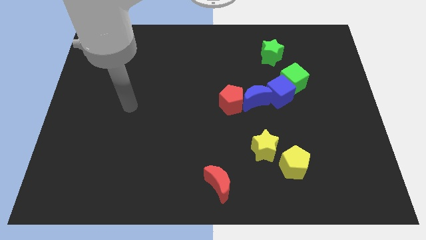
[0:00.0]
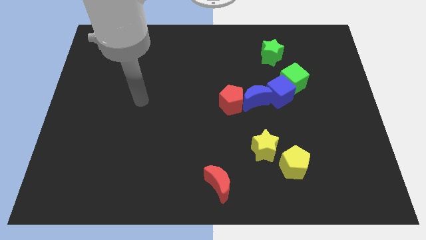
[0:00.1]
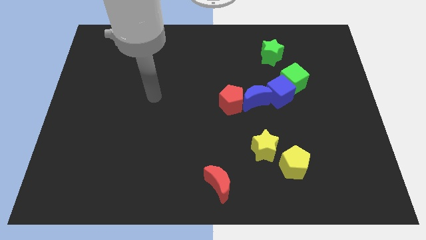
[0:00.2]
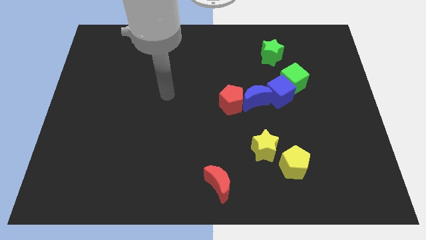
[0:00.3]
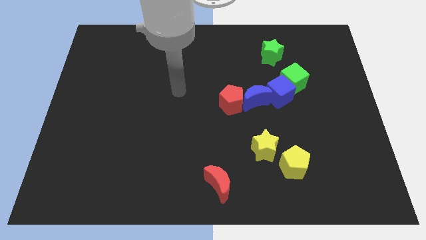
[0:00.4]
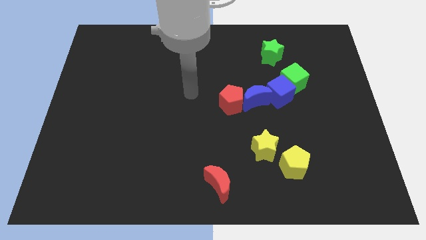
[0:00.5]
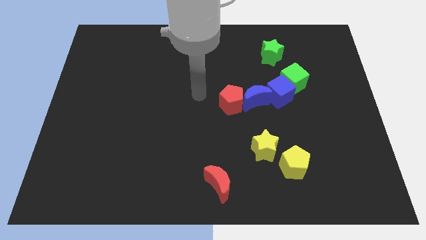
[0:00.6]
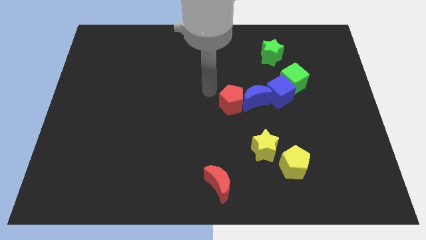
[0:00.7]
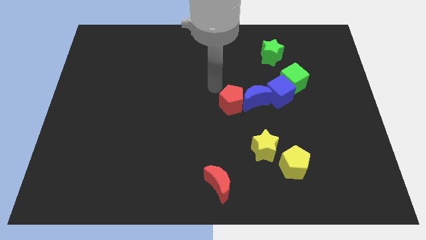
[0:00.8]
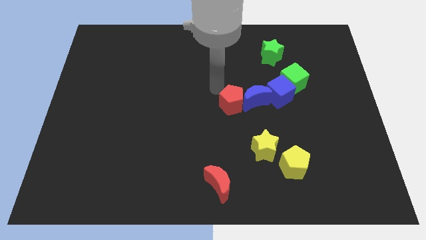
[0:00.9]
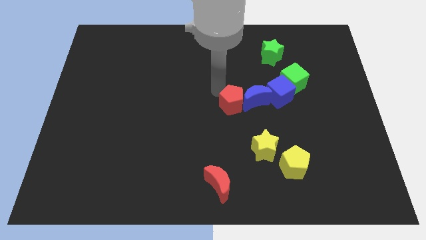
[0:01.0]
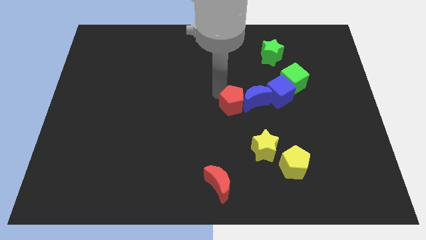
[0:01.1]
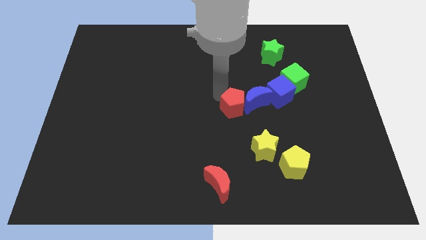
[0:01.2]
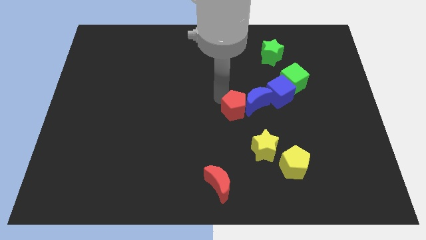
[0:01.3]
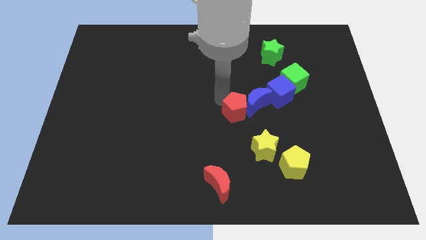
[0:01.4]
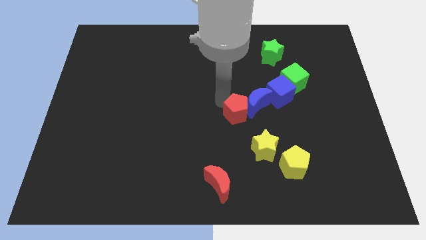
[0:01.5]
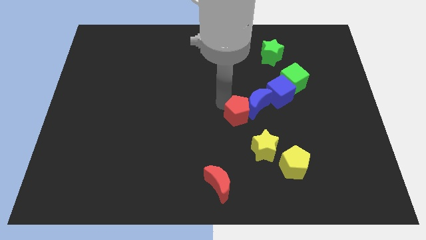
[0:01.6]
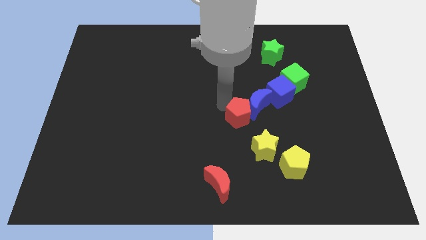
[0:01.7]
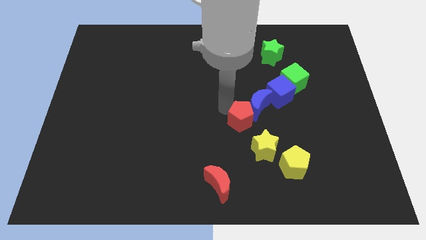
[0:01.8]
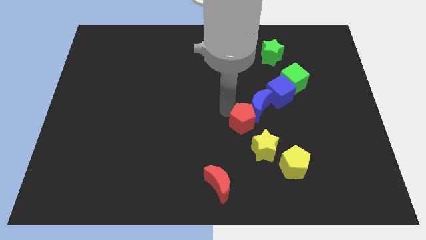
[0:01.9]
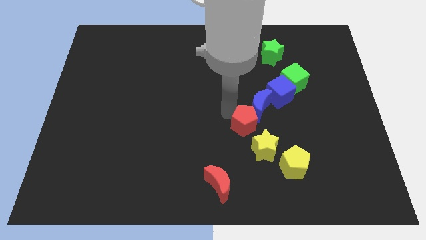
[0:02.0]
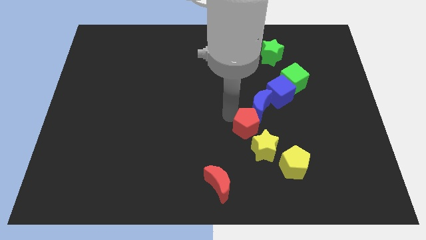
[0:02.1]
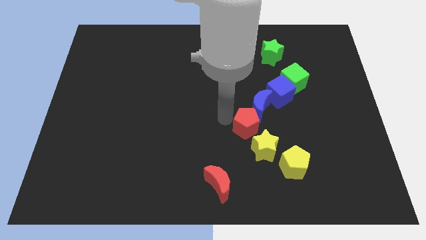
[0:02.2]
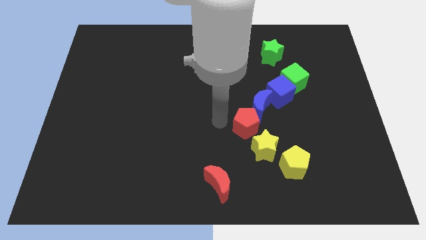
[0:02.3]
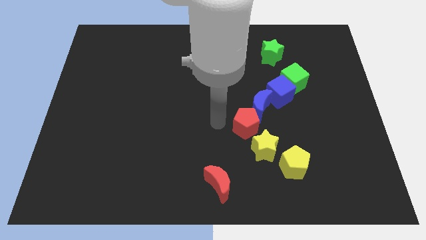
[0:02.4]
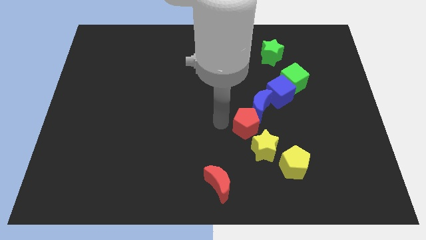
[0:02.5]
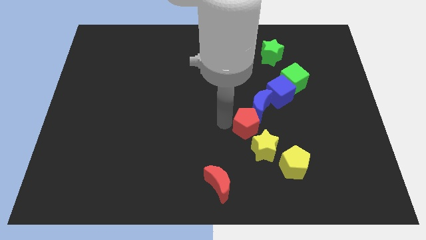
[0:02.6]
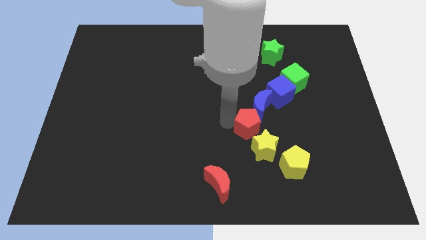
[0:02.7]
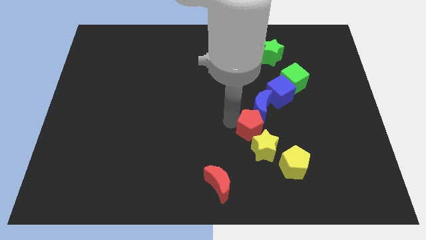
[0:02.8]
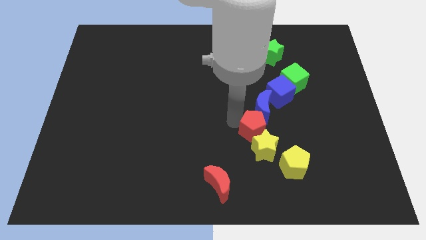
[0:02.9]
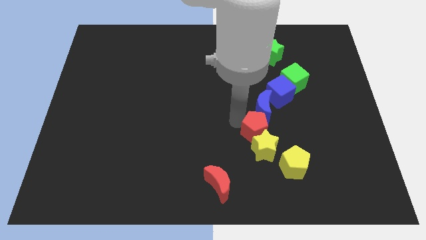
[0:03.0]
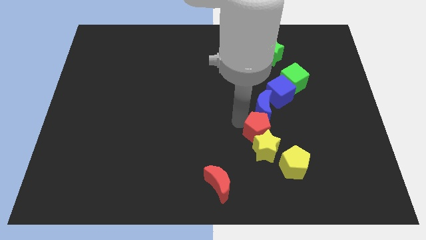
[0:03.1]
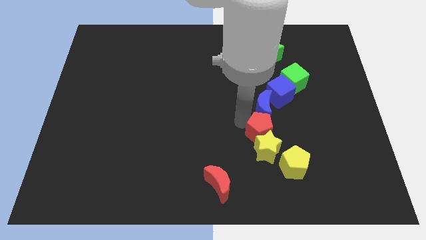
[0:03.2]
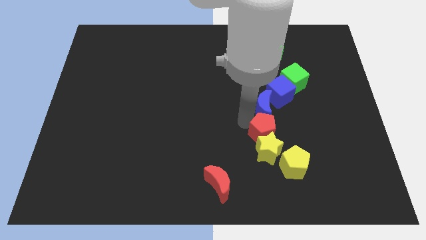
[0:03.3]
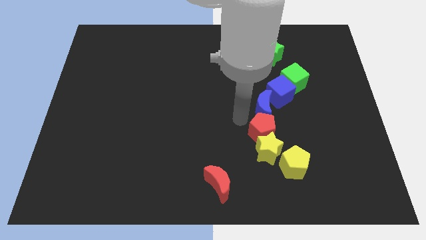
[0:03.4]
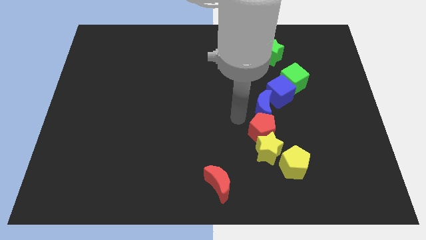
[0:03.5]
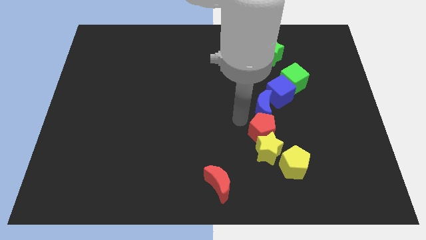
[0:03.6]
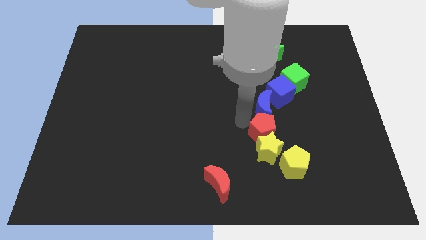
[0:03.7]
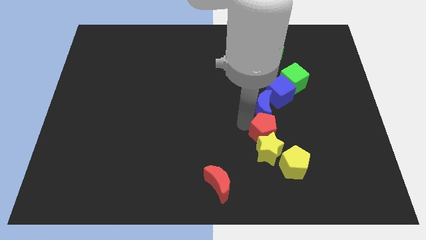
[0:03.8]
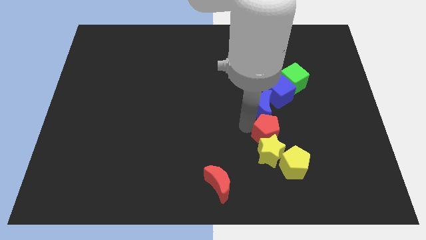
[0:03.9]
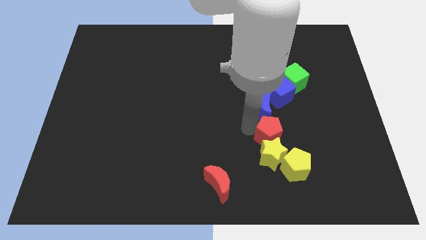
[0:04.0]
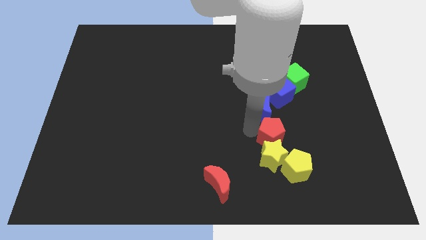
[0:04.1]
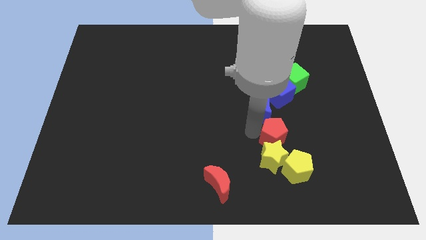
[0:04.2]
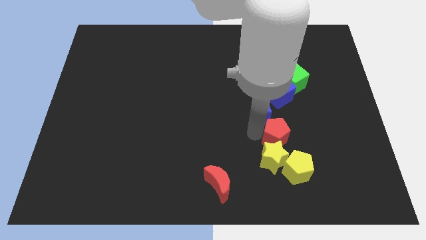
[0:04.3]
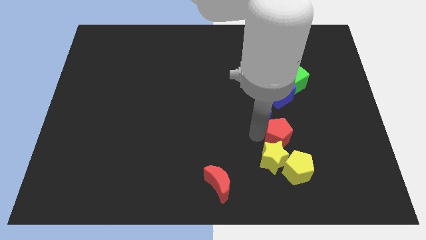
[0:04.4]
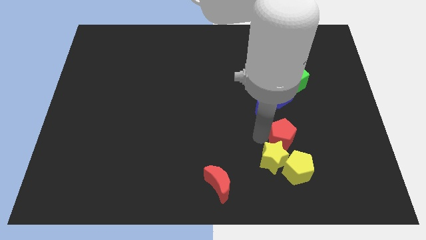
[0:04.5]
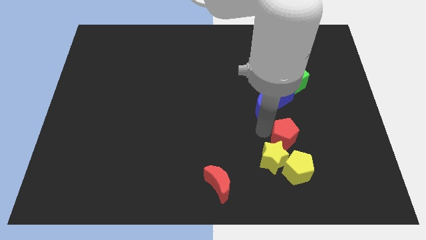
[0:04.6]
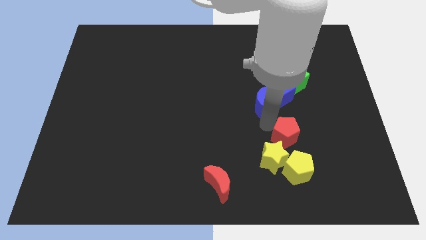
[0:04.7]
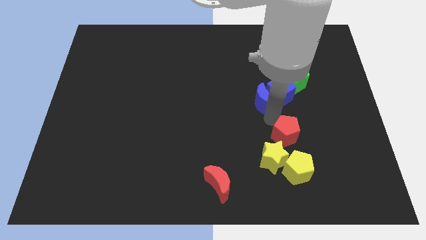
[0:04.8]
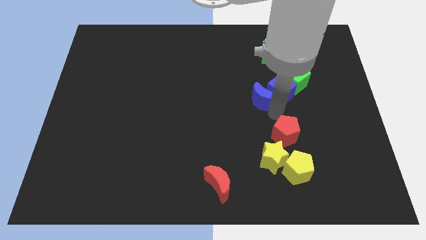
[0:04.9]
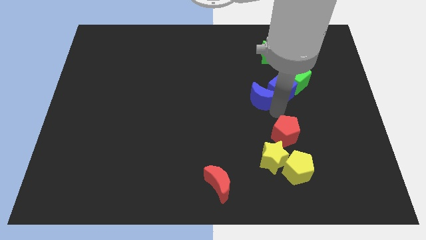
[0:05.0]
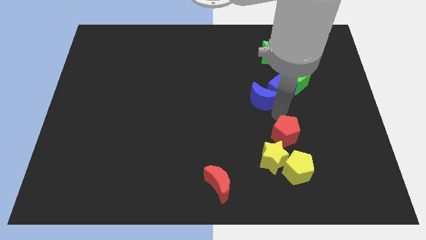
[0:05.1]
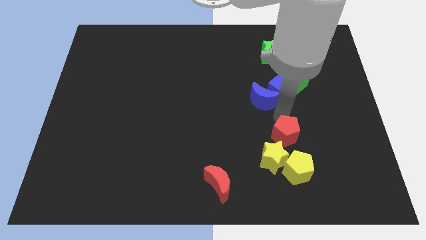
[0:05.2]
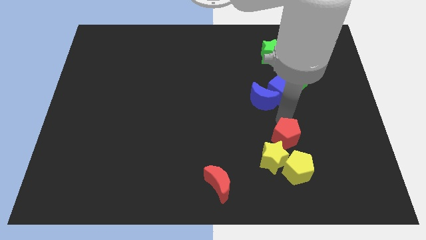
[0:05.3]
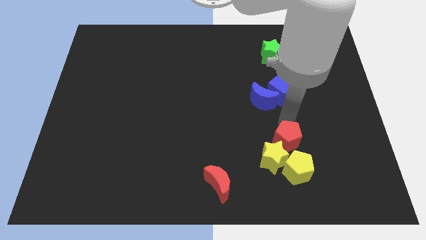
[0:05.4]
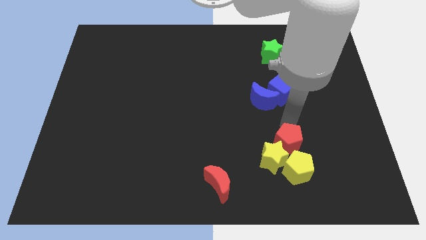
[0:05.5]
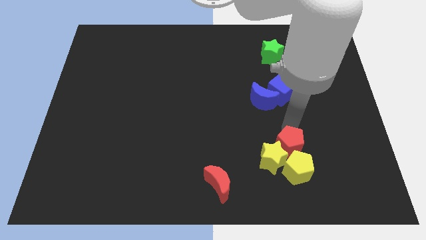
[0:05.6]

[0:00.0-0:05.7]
push the red pentagon to the yellow pentagon

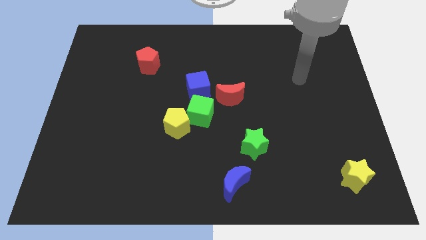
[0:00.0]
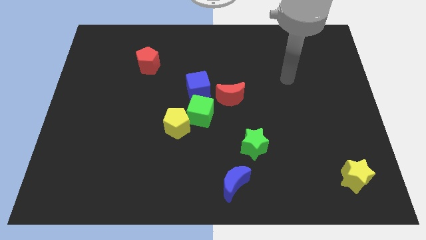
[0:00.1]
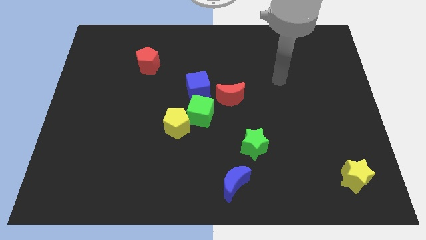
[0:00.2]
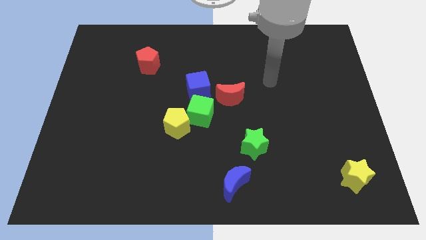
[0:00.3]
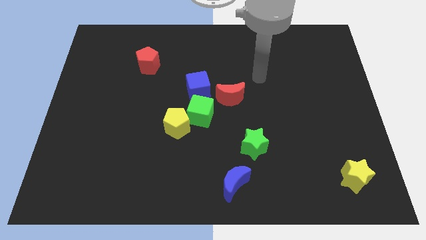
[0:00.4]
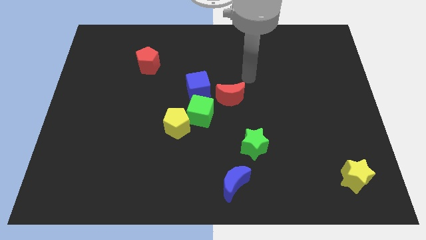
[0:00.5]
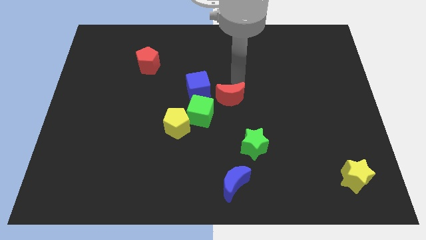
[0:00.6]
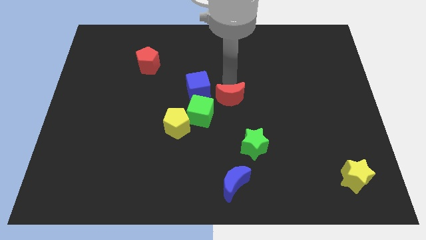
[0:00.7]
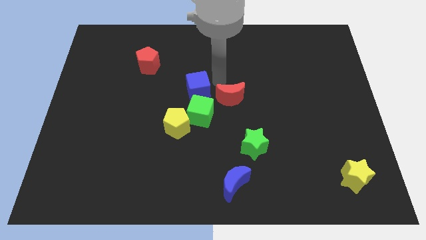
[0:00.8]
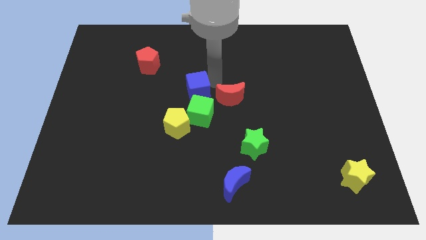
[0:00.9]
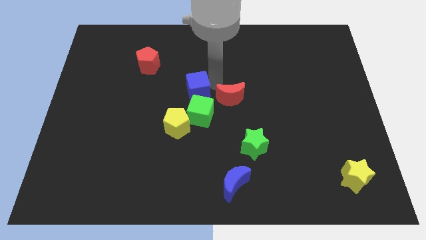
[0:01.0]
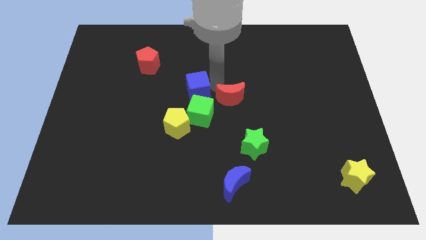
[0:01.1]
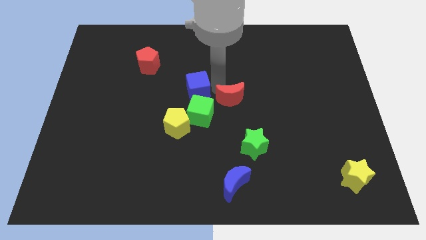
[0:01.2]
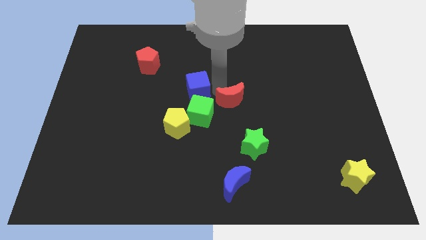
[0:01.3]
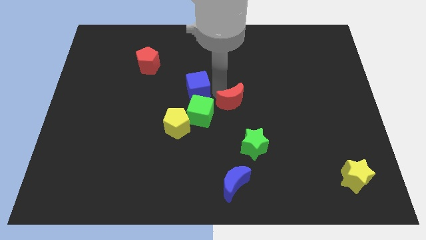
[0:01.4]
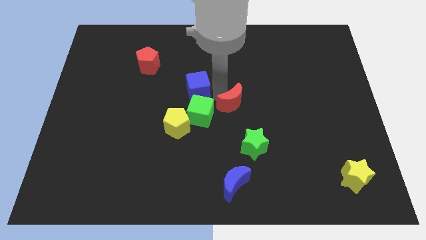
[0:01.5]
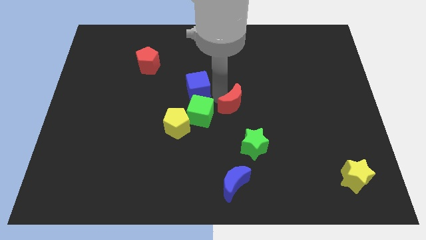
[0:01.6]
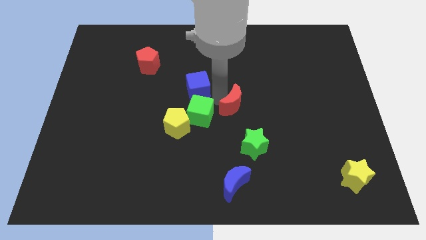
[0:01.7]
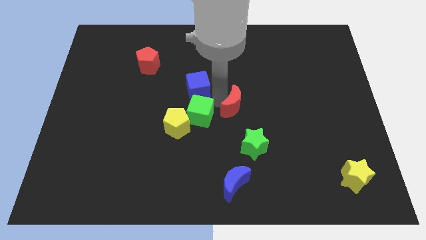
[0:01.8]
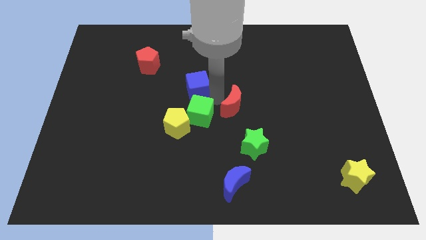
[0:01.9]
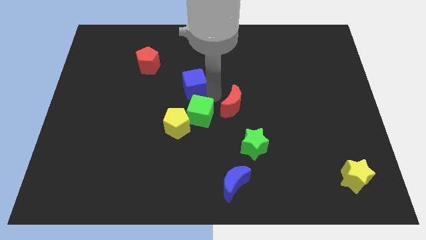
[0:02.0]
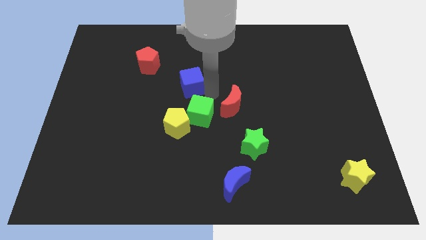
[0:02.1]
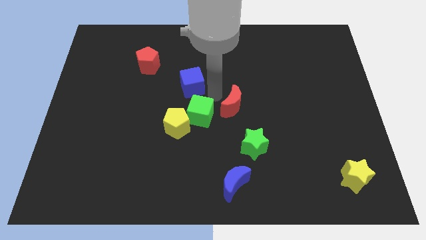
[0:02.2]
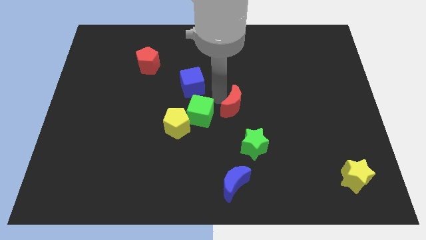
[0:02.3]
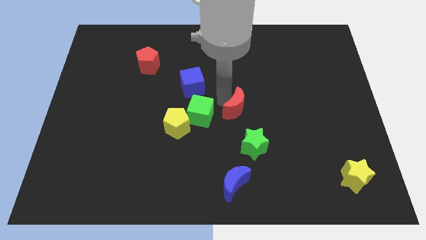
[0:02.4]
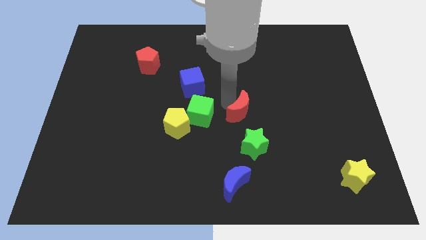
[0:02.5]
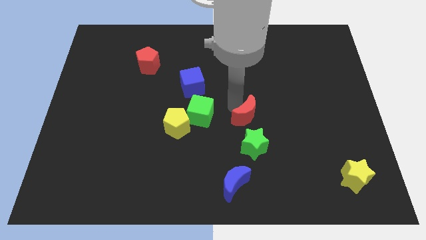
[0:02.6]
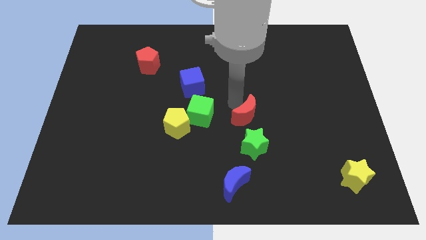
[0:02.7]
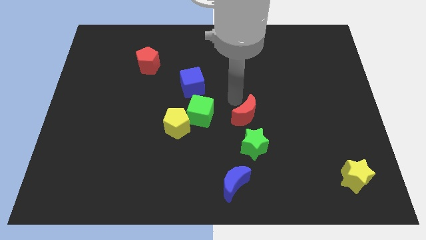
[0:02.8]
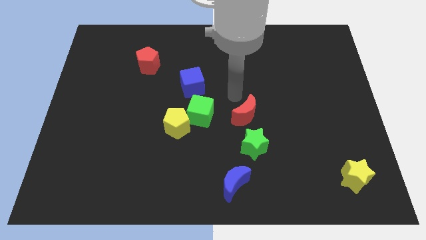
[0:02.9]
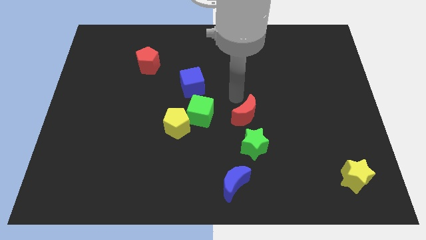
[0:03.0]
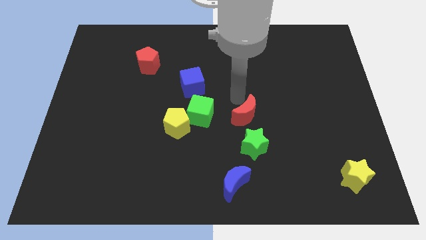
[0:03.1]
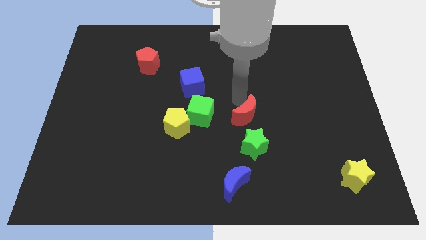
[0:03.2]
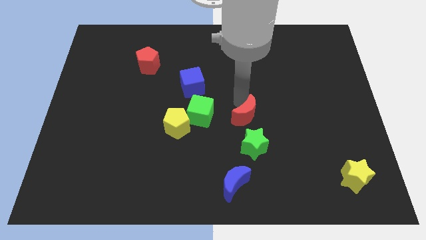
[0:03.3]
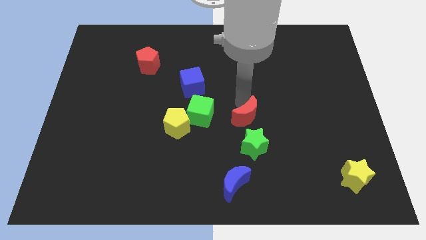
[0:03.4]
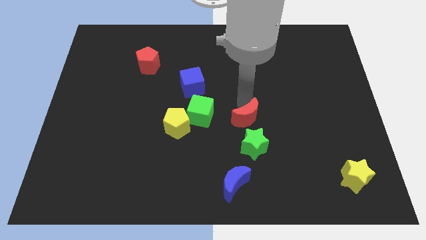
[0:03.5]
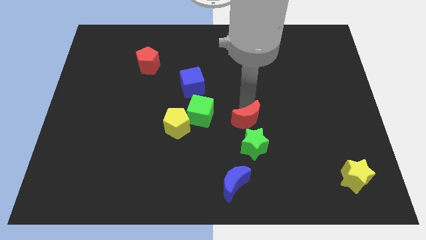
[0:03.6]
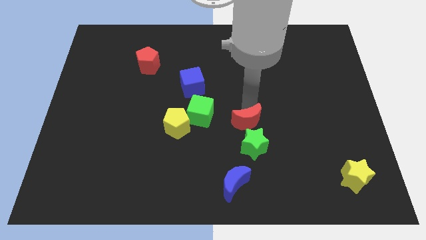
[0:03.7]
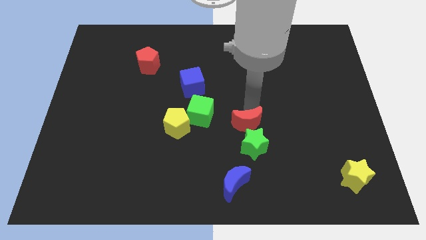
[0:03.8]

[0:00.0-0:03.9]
push the red moon towards the green star
